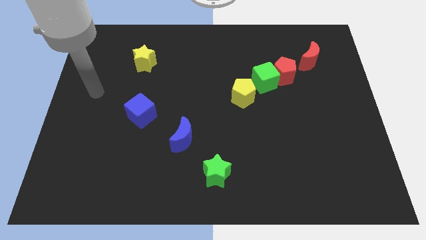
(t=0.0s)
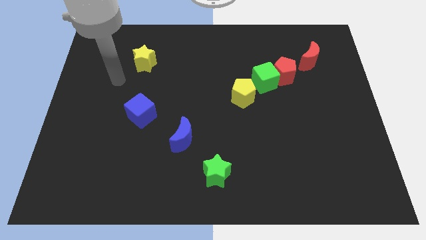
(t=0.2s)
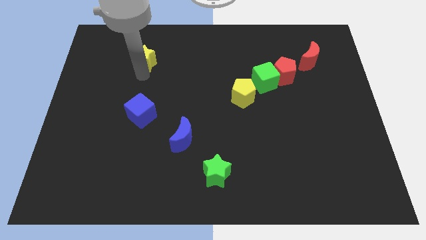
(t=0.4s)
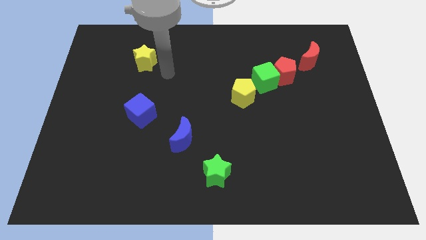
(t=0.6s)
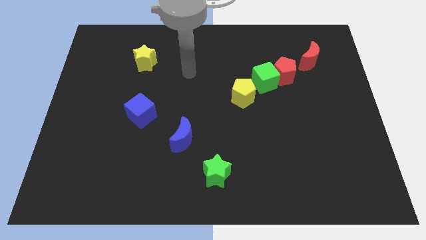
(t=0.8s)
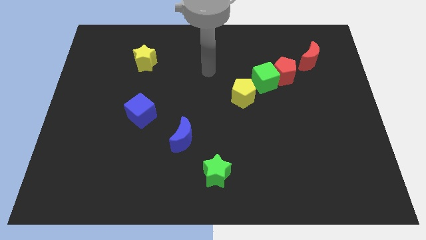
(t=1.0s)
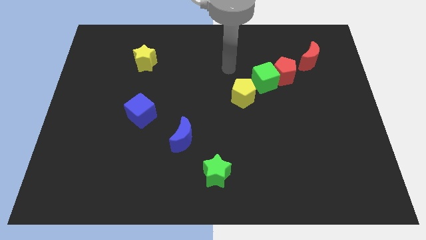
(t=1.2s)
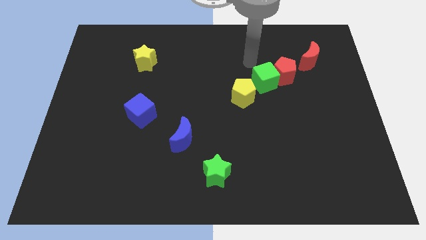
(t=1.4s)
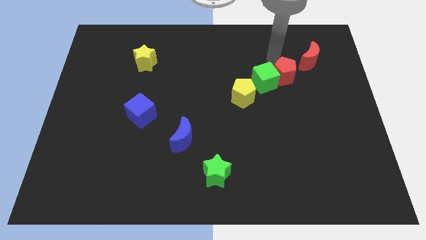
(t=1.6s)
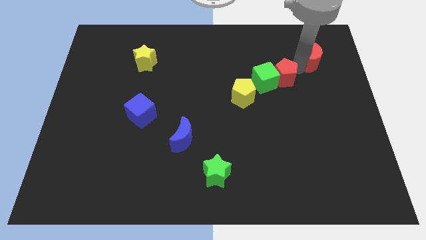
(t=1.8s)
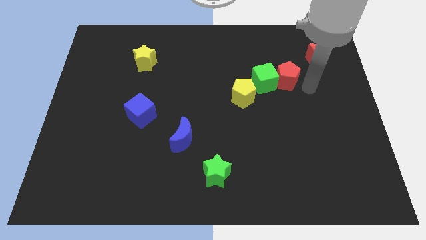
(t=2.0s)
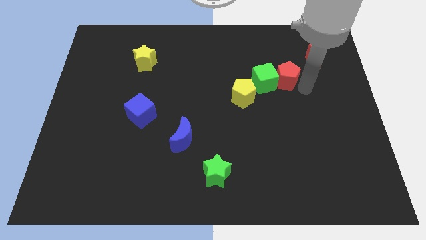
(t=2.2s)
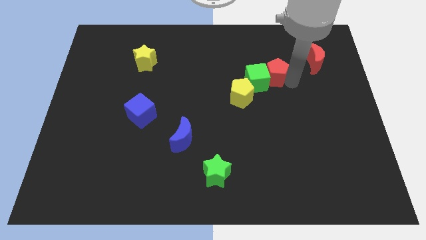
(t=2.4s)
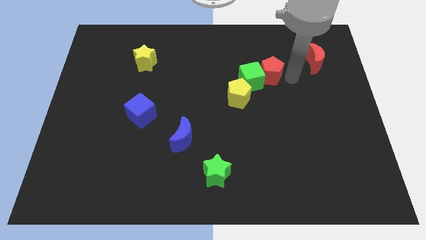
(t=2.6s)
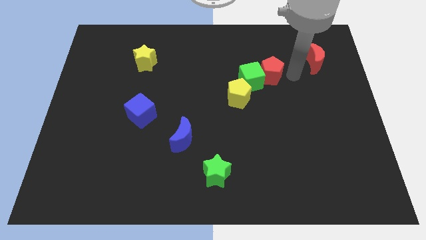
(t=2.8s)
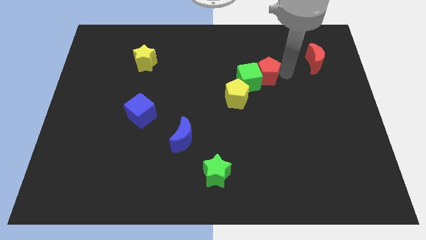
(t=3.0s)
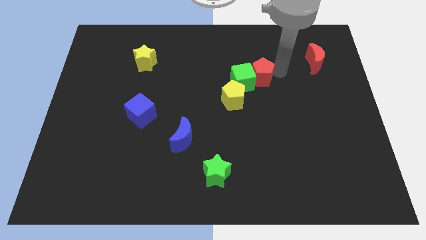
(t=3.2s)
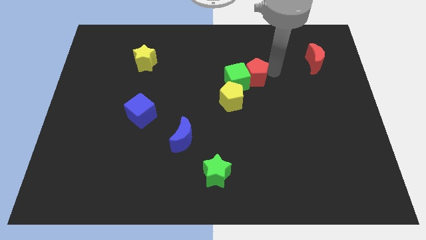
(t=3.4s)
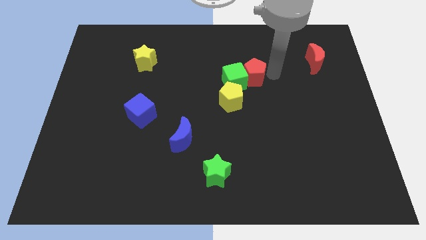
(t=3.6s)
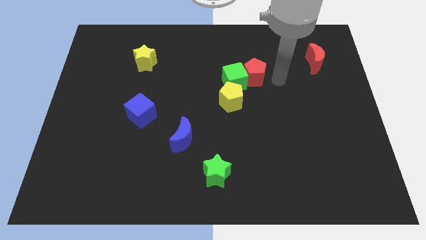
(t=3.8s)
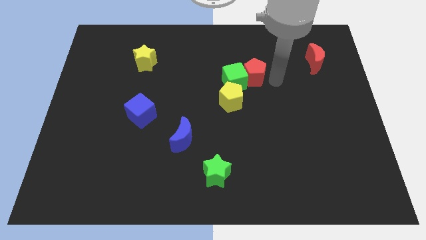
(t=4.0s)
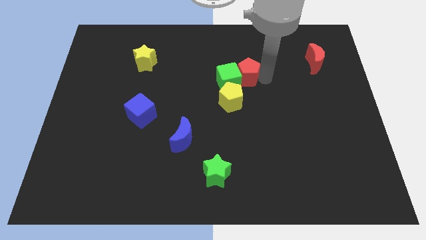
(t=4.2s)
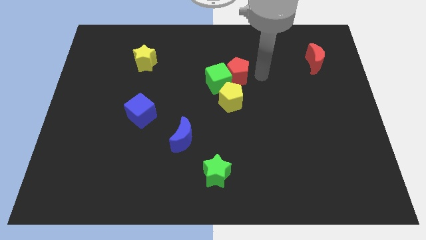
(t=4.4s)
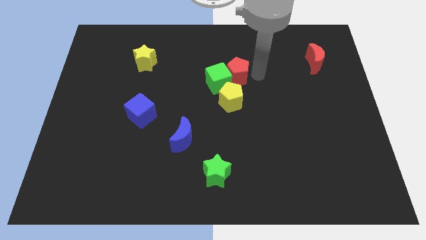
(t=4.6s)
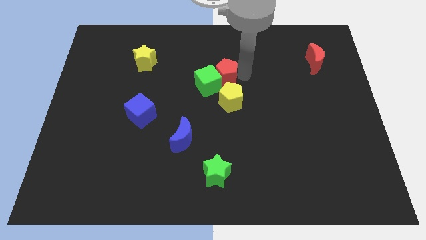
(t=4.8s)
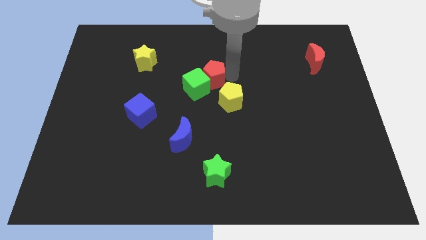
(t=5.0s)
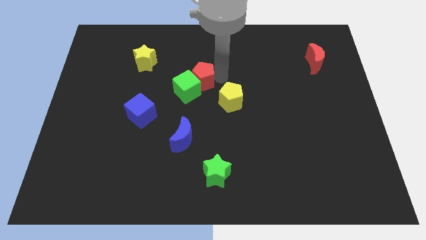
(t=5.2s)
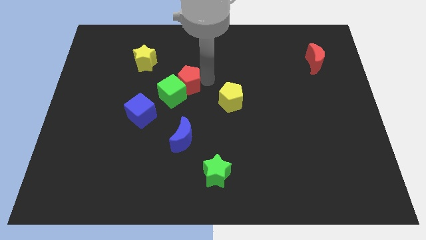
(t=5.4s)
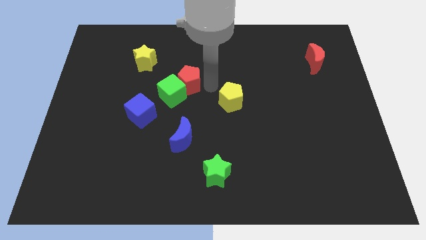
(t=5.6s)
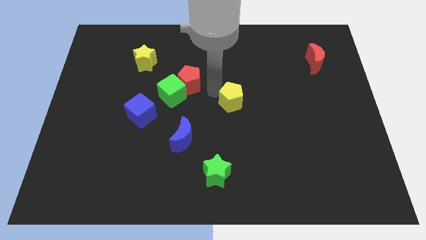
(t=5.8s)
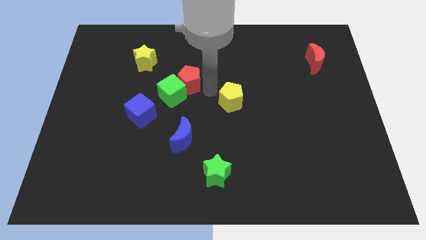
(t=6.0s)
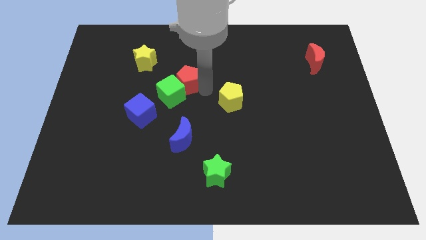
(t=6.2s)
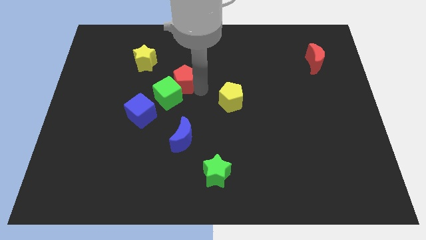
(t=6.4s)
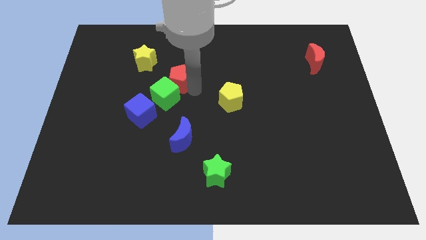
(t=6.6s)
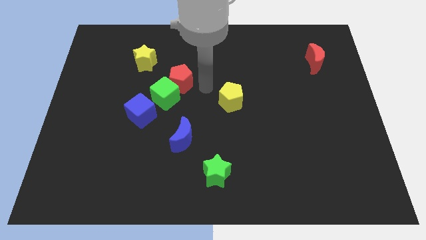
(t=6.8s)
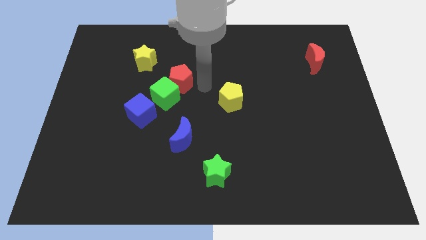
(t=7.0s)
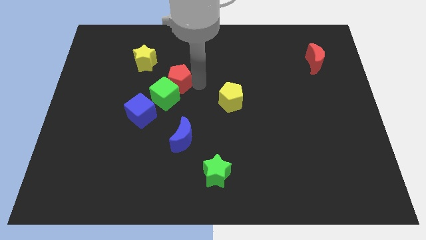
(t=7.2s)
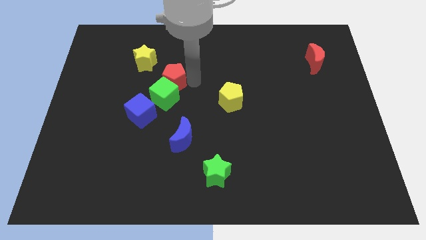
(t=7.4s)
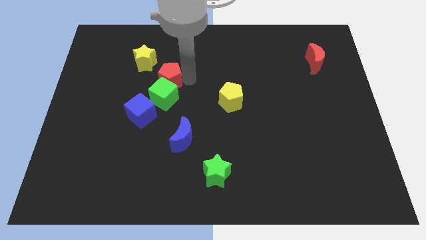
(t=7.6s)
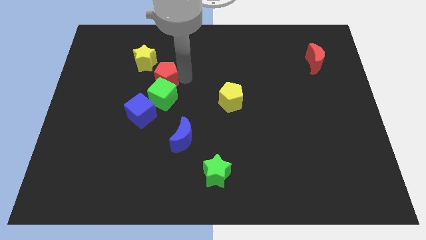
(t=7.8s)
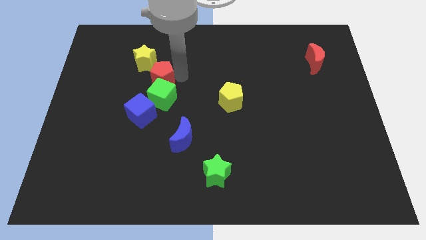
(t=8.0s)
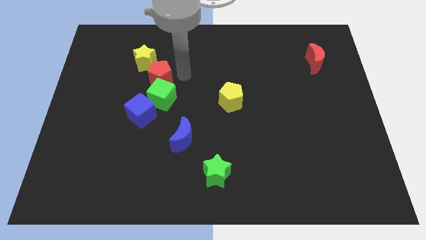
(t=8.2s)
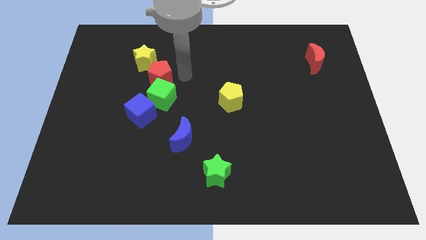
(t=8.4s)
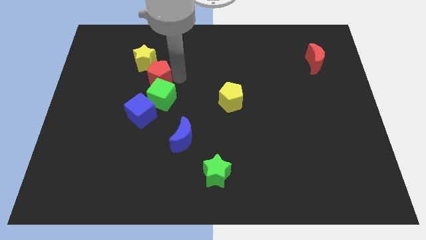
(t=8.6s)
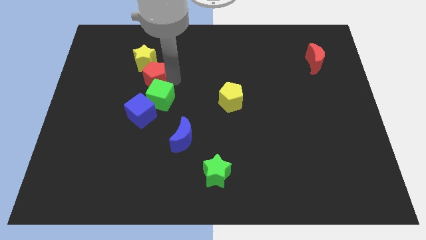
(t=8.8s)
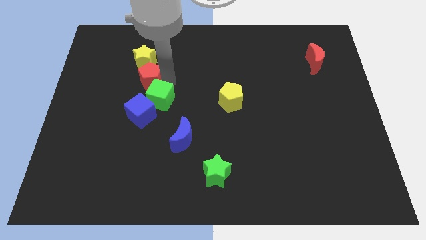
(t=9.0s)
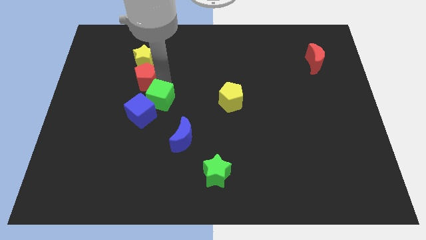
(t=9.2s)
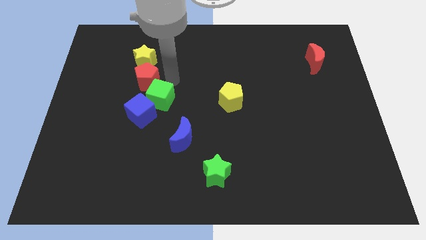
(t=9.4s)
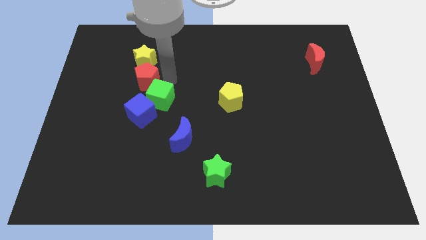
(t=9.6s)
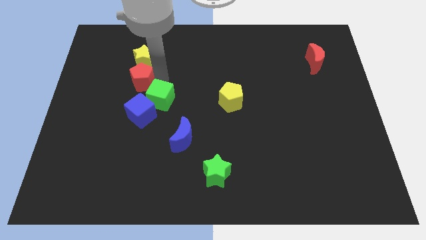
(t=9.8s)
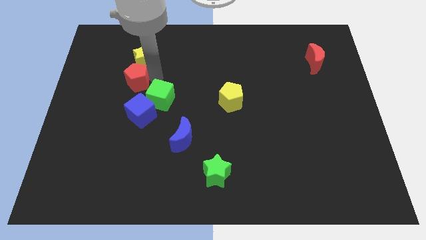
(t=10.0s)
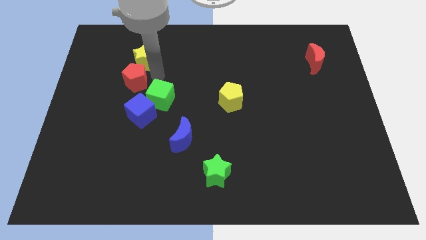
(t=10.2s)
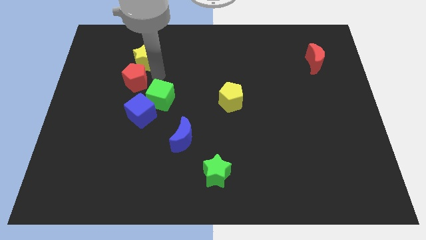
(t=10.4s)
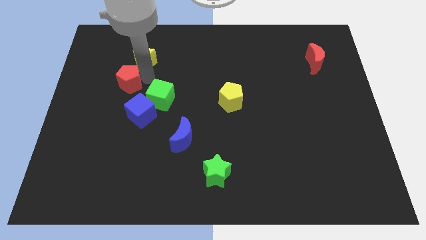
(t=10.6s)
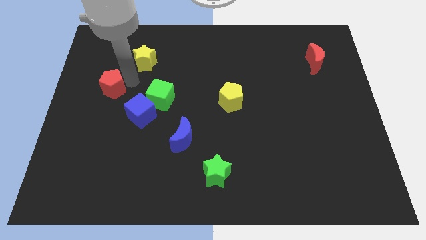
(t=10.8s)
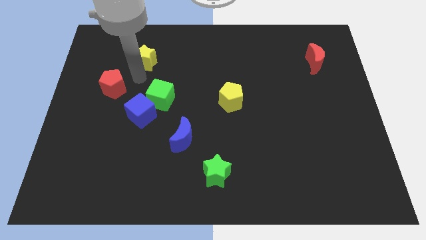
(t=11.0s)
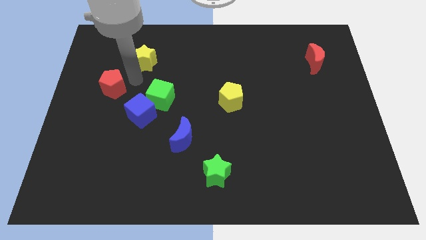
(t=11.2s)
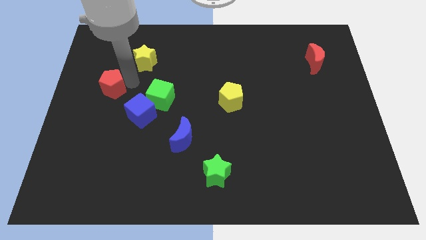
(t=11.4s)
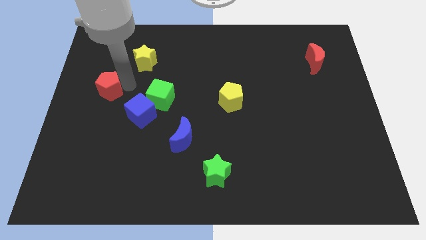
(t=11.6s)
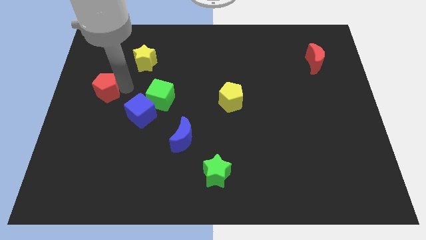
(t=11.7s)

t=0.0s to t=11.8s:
put the red pentagon to the left side of the board

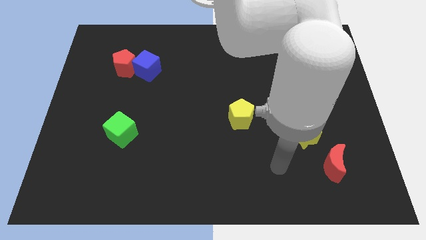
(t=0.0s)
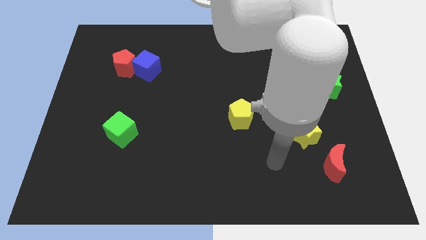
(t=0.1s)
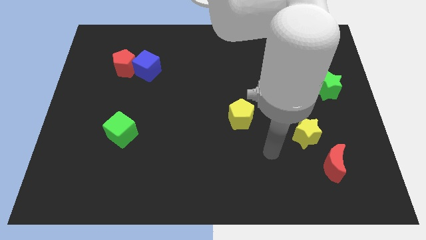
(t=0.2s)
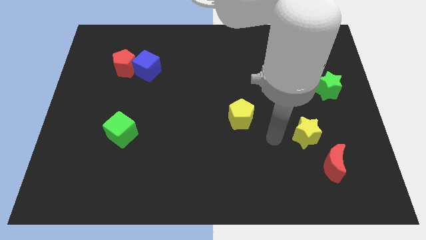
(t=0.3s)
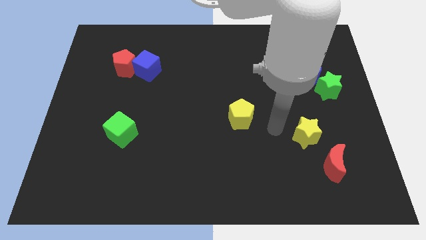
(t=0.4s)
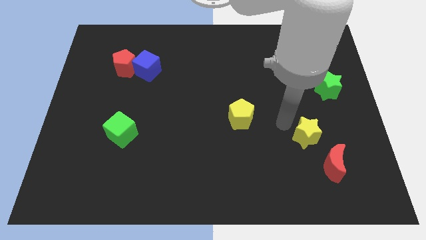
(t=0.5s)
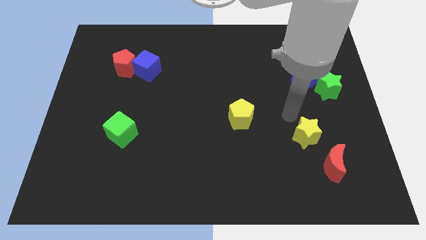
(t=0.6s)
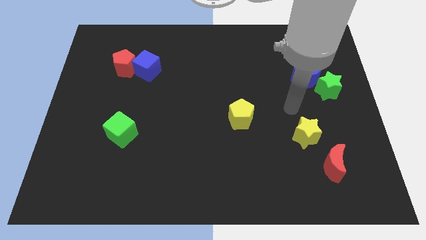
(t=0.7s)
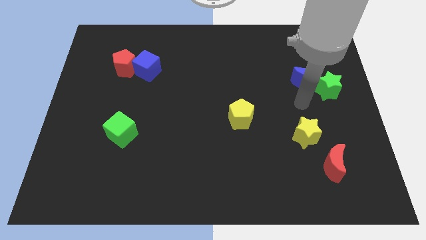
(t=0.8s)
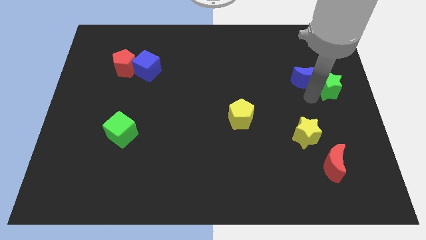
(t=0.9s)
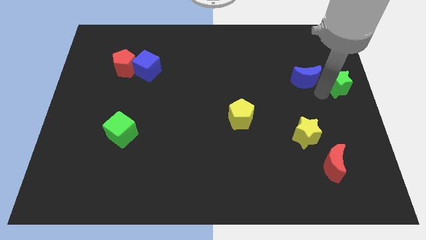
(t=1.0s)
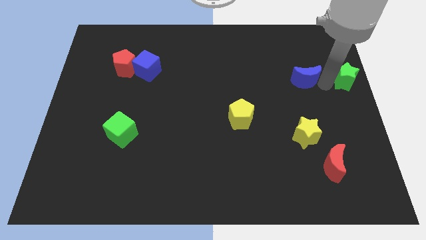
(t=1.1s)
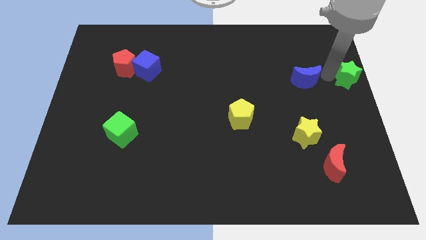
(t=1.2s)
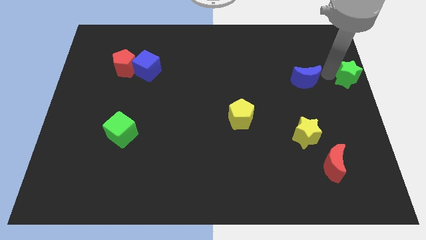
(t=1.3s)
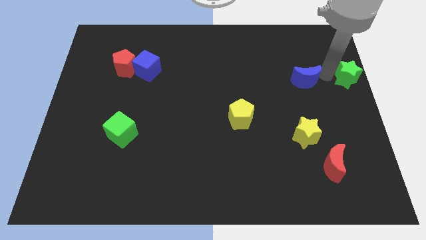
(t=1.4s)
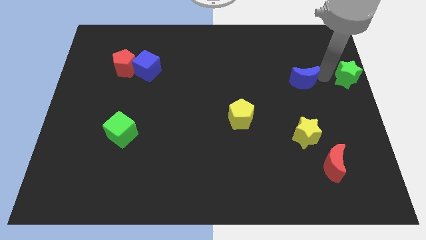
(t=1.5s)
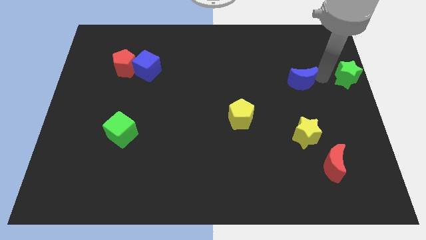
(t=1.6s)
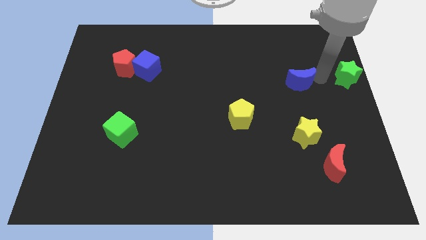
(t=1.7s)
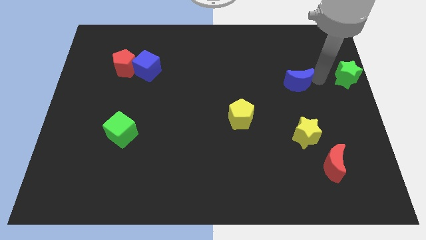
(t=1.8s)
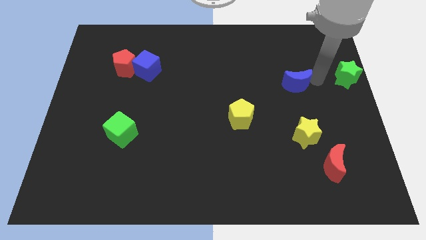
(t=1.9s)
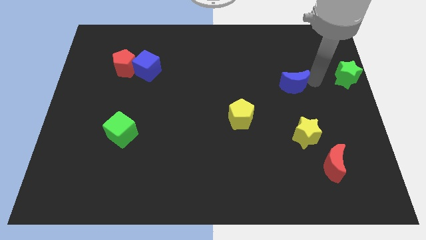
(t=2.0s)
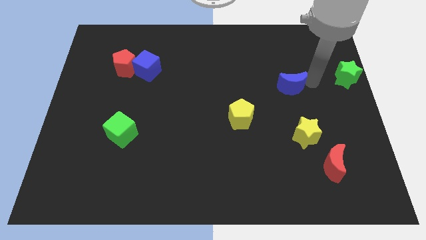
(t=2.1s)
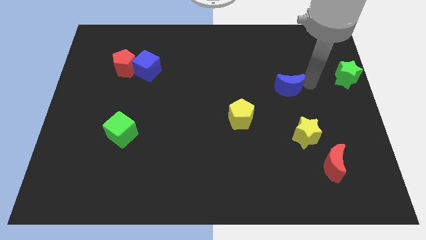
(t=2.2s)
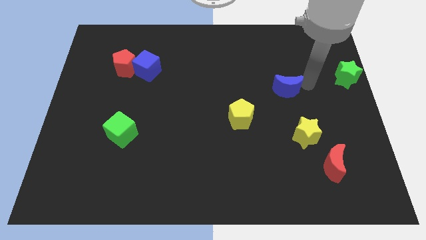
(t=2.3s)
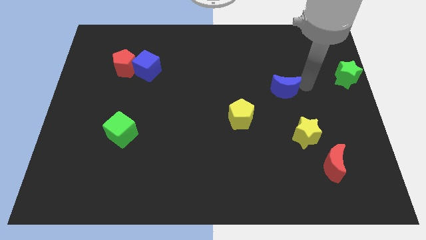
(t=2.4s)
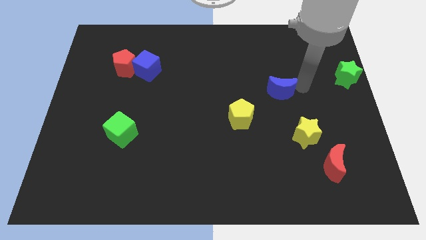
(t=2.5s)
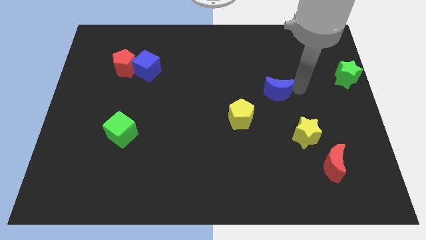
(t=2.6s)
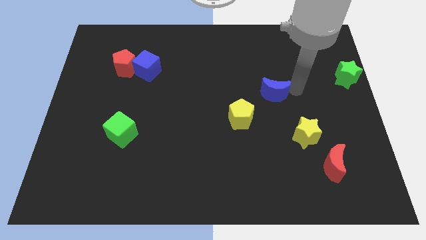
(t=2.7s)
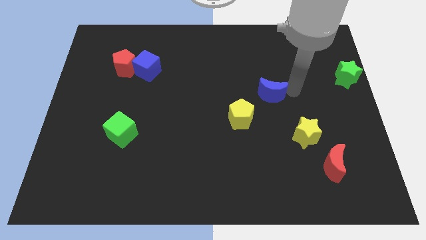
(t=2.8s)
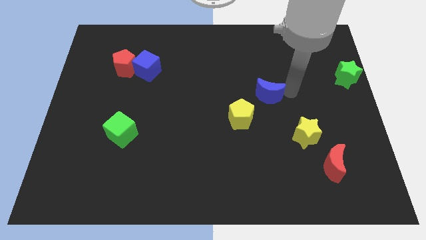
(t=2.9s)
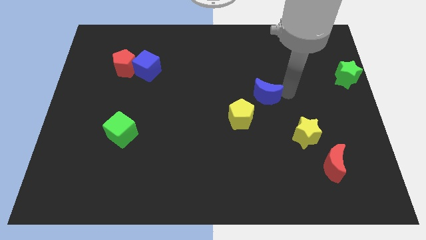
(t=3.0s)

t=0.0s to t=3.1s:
slide the blue moon to the middle
